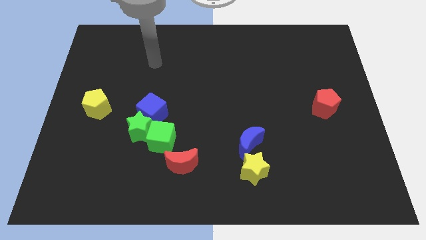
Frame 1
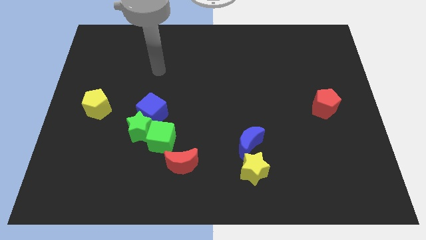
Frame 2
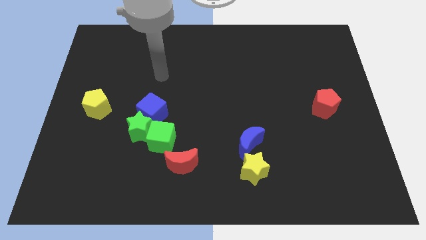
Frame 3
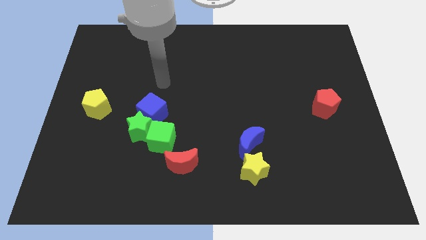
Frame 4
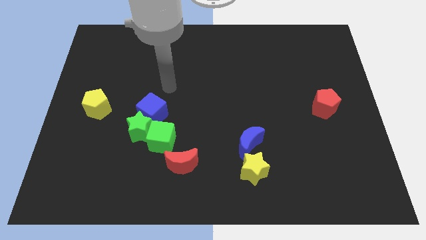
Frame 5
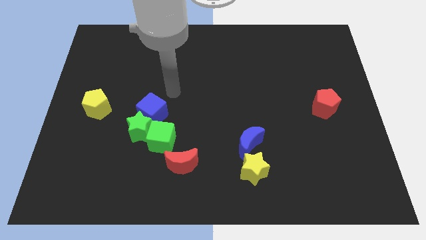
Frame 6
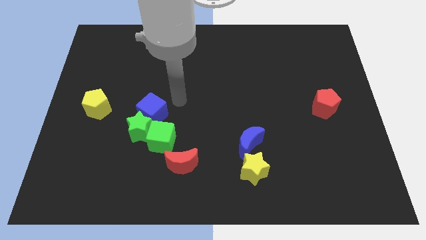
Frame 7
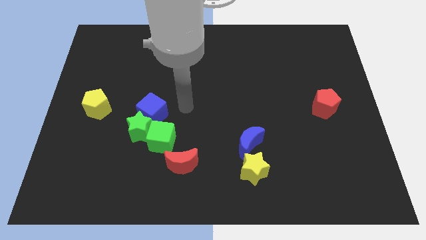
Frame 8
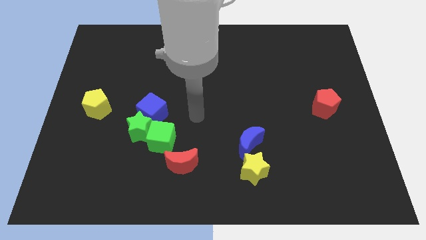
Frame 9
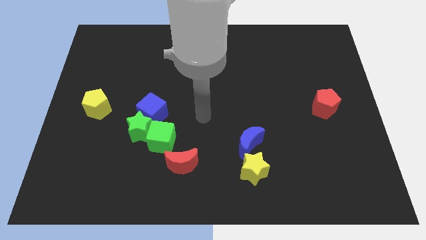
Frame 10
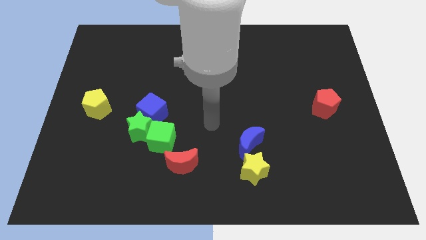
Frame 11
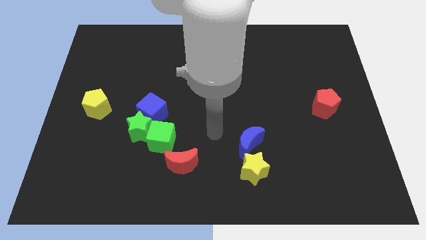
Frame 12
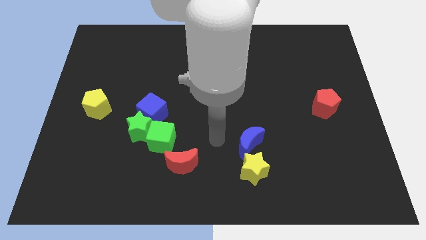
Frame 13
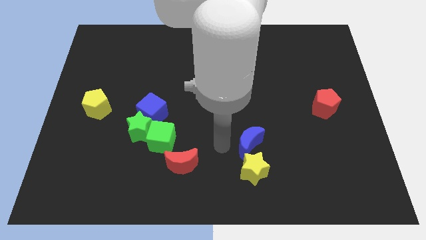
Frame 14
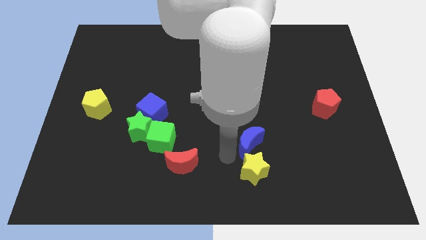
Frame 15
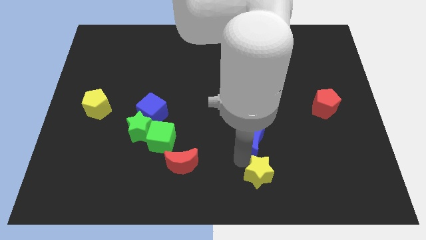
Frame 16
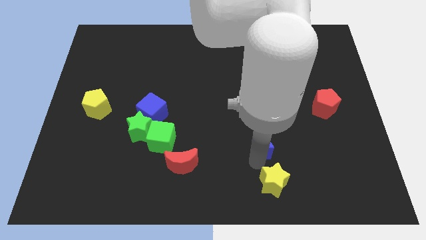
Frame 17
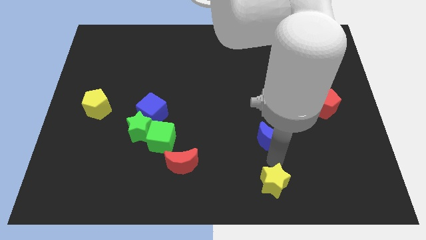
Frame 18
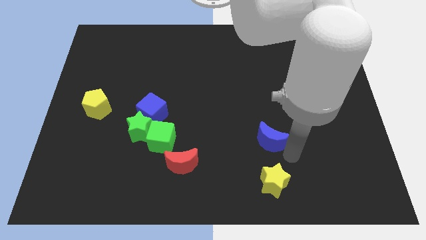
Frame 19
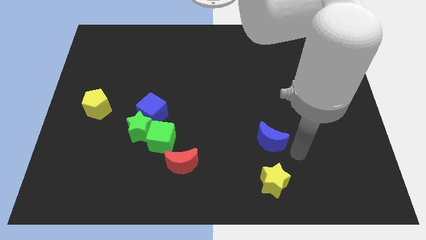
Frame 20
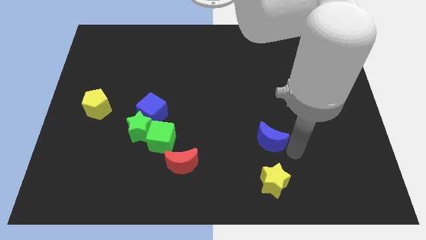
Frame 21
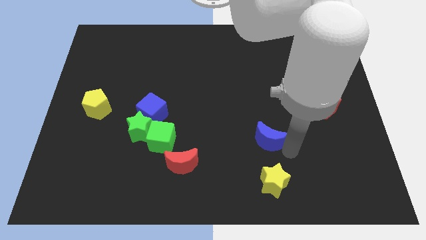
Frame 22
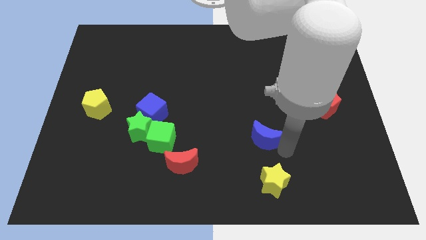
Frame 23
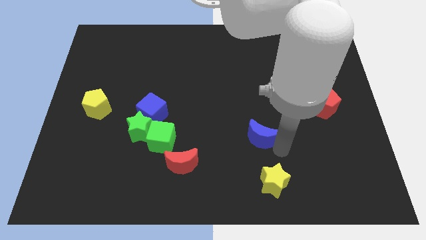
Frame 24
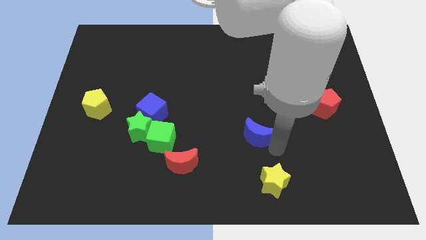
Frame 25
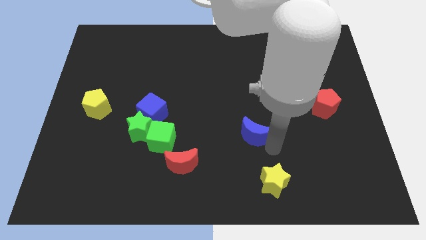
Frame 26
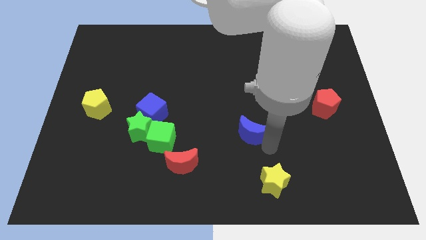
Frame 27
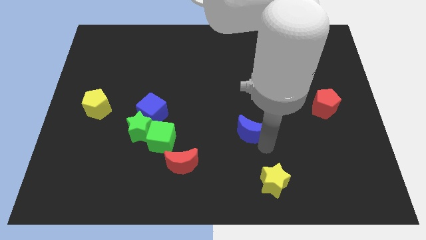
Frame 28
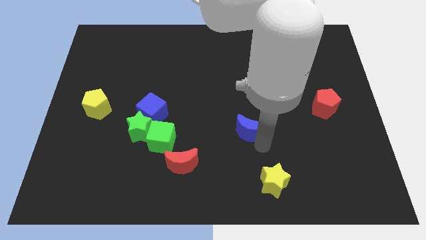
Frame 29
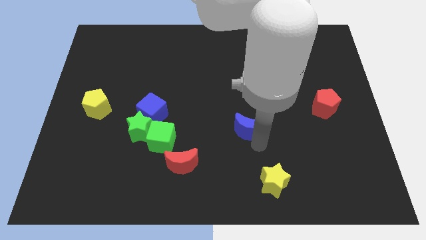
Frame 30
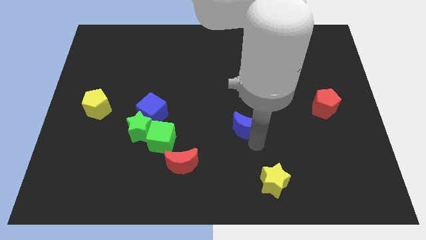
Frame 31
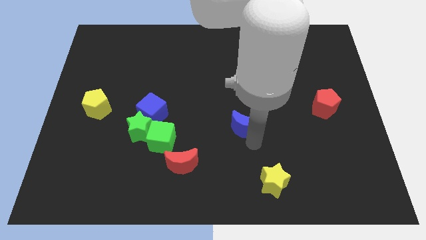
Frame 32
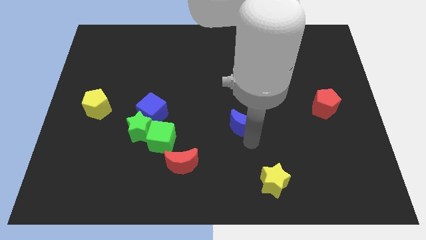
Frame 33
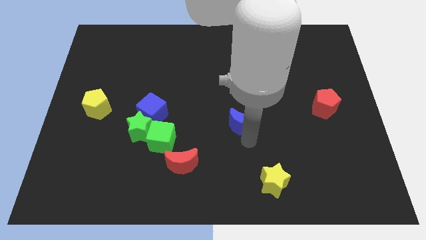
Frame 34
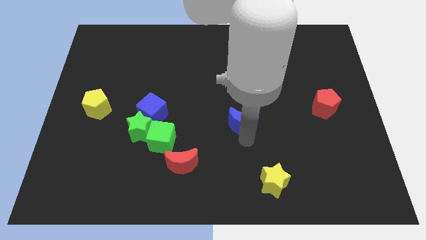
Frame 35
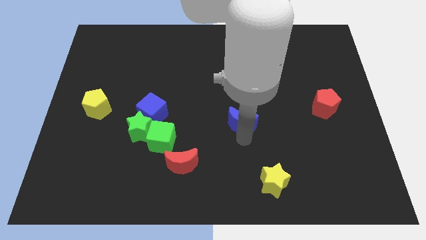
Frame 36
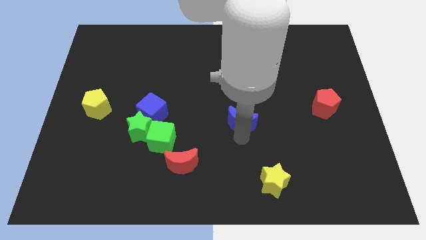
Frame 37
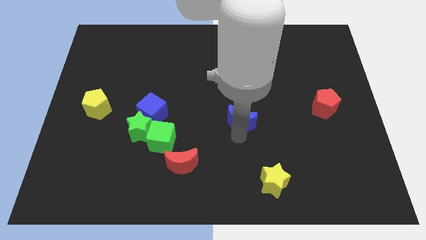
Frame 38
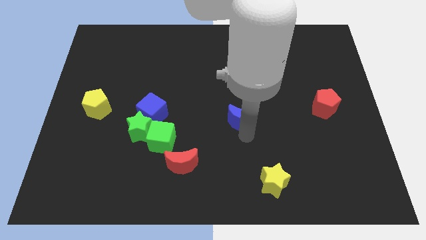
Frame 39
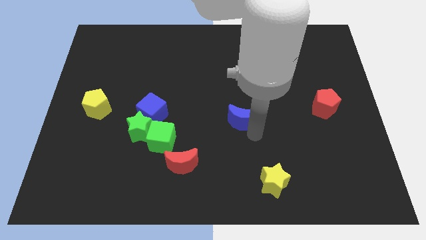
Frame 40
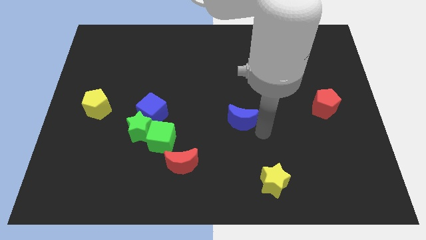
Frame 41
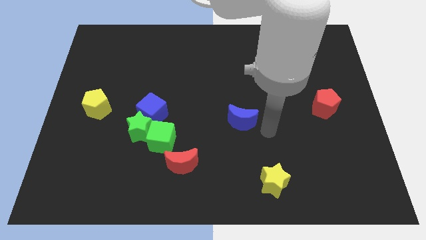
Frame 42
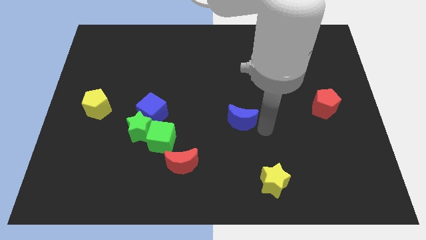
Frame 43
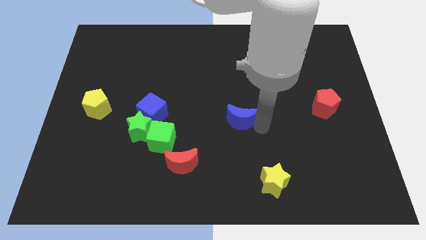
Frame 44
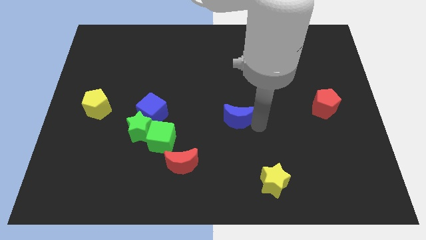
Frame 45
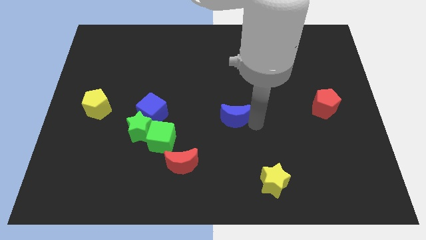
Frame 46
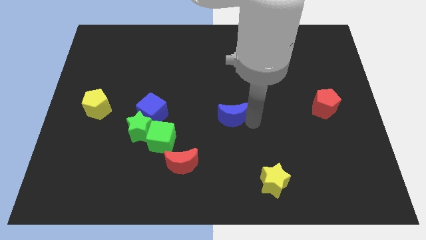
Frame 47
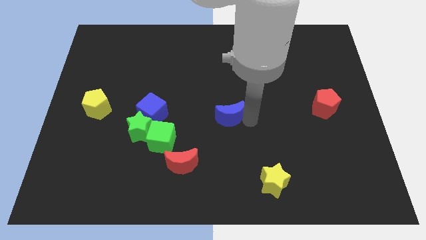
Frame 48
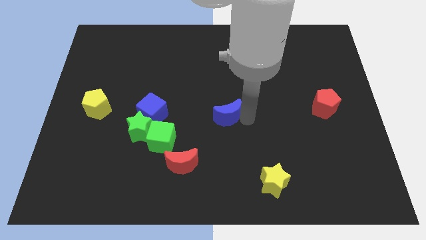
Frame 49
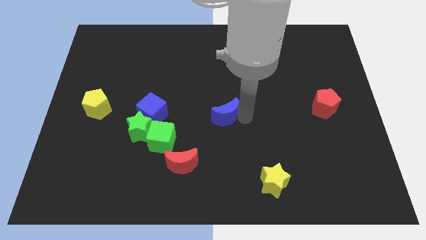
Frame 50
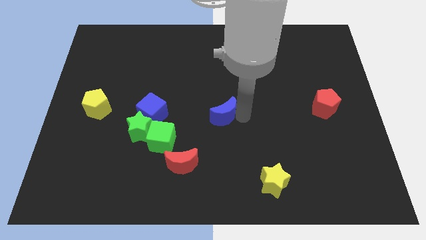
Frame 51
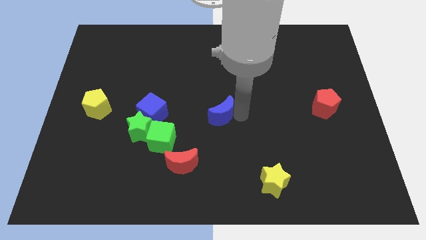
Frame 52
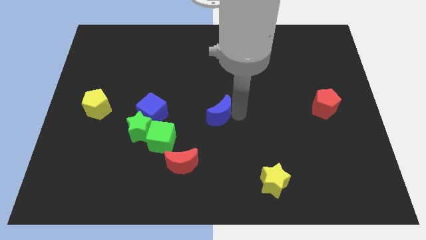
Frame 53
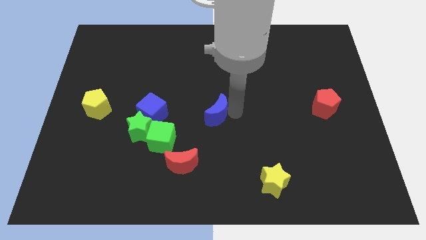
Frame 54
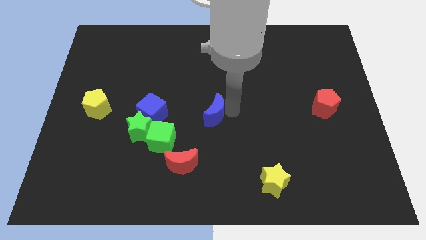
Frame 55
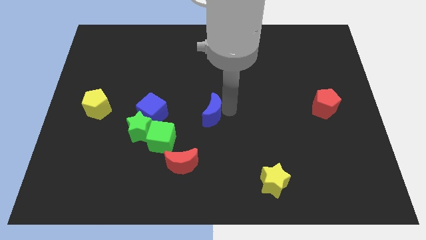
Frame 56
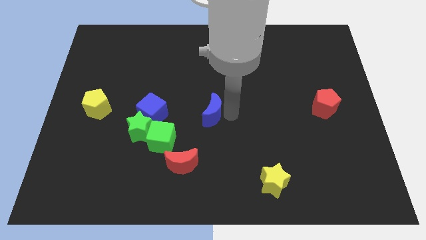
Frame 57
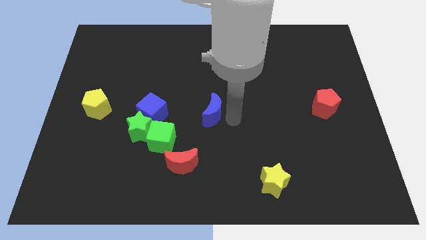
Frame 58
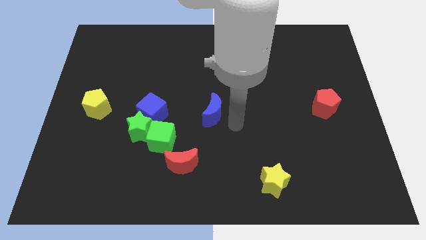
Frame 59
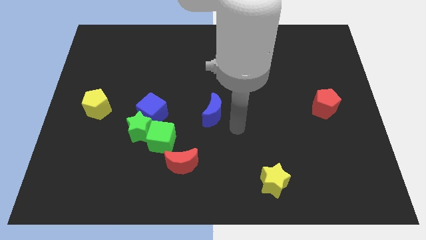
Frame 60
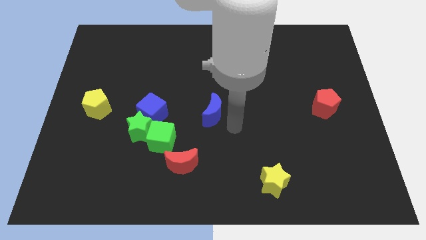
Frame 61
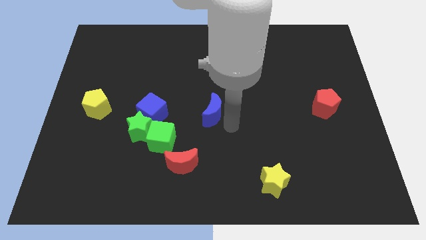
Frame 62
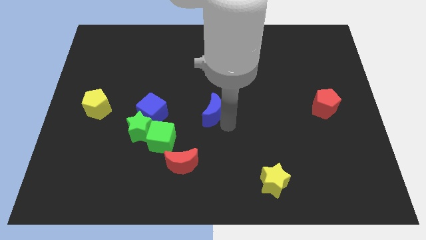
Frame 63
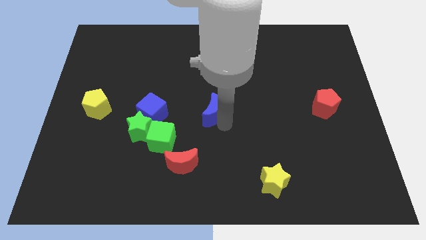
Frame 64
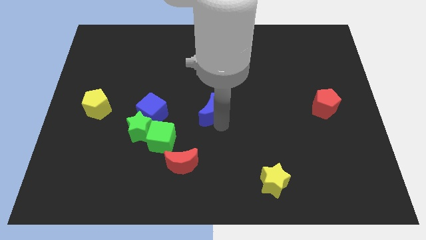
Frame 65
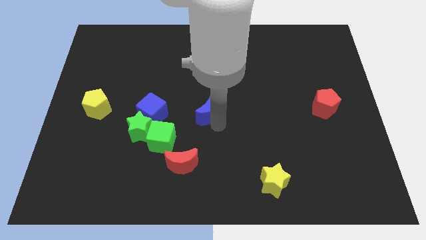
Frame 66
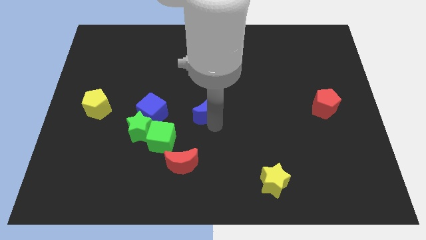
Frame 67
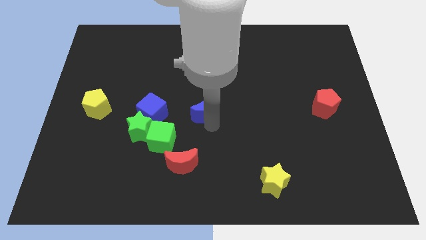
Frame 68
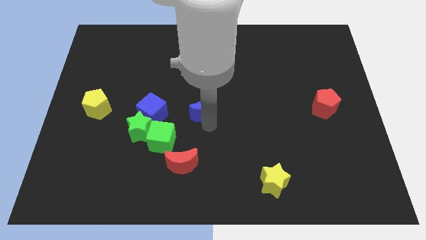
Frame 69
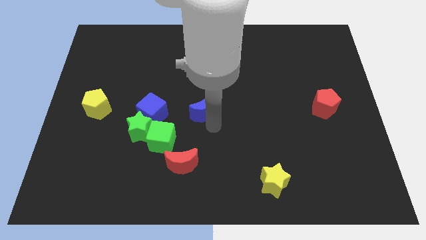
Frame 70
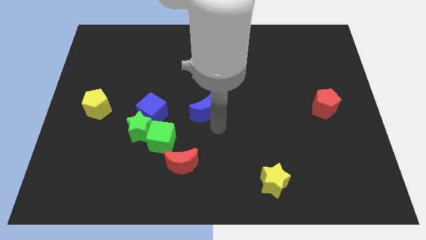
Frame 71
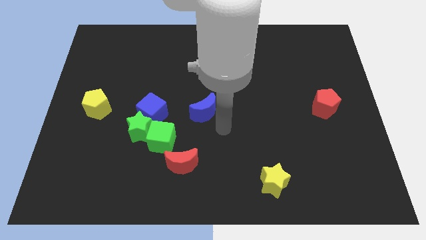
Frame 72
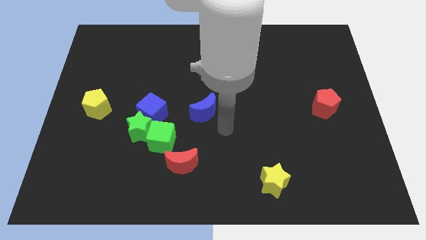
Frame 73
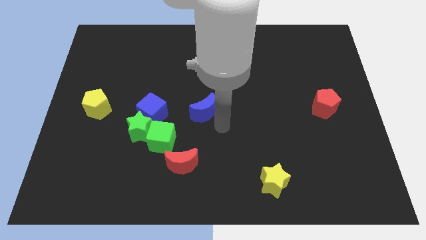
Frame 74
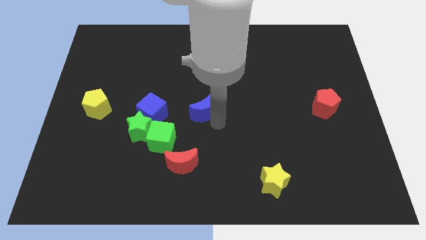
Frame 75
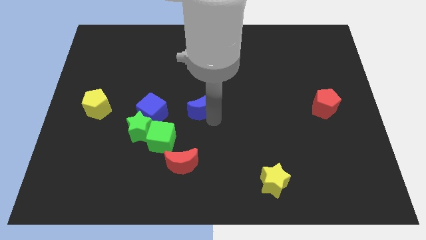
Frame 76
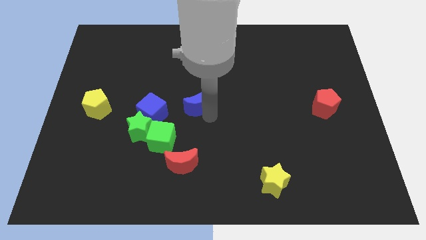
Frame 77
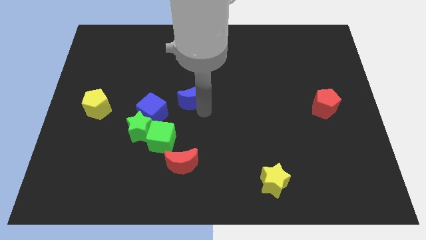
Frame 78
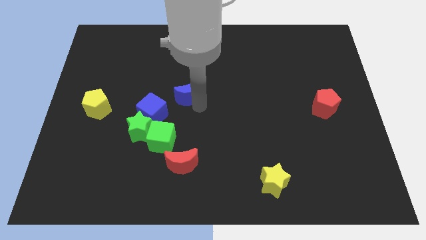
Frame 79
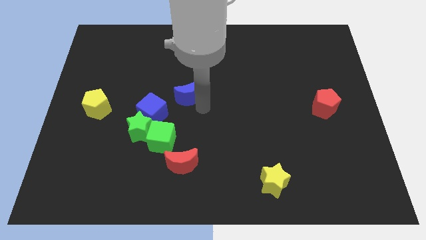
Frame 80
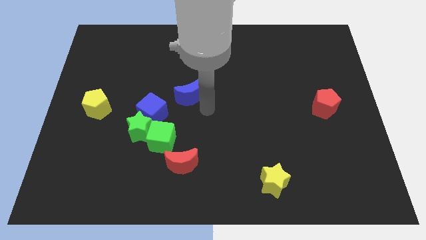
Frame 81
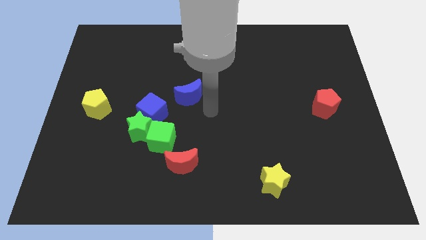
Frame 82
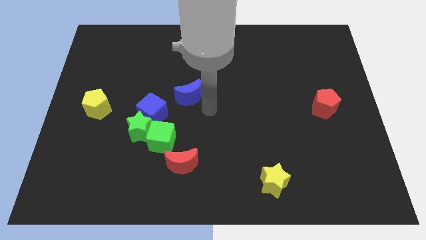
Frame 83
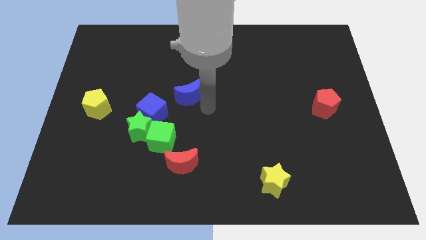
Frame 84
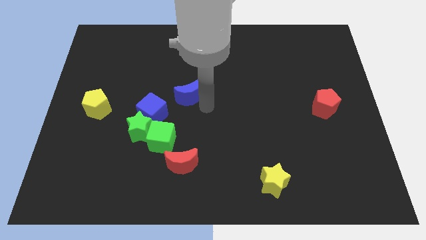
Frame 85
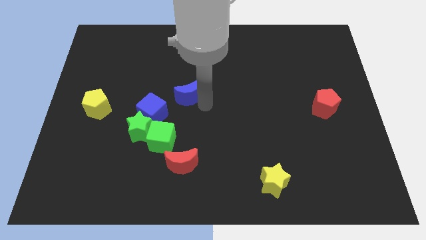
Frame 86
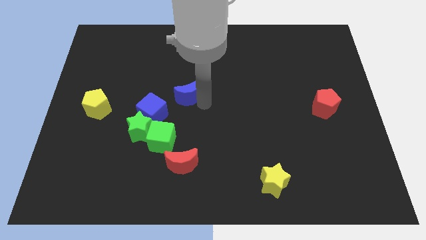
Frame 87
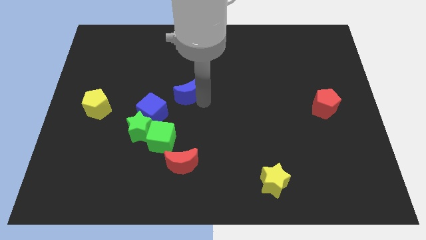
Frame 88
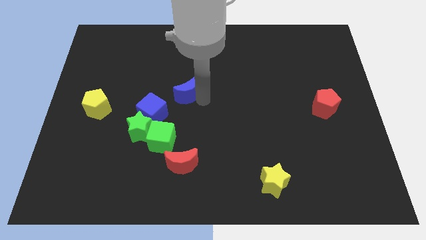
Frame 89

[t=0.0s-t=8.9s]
slide the blue moon up and then left
